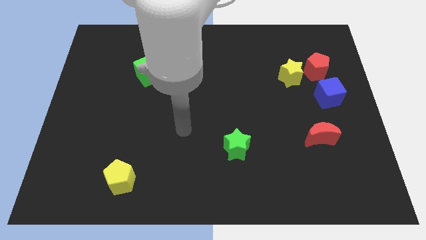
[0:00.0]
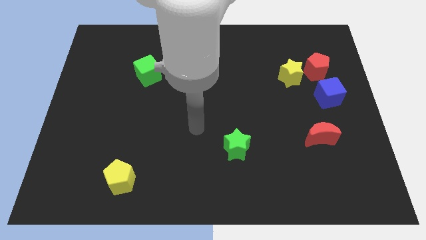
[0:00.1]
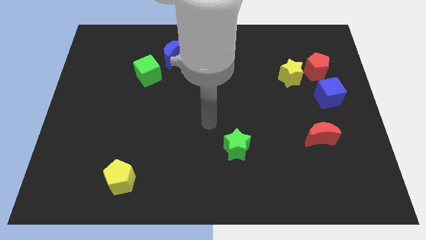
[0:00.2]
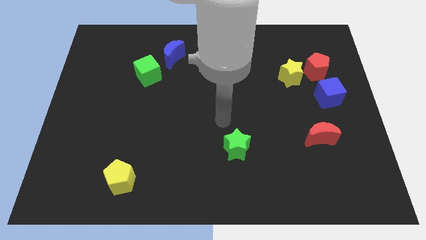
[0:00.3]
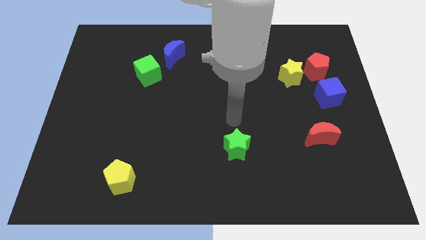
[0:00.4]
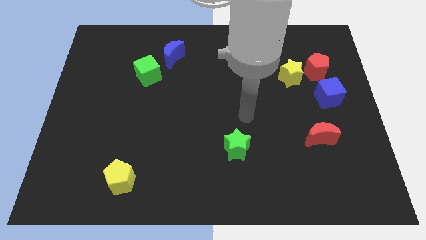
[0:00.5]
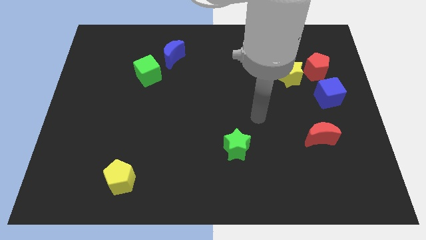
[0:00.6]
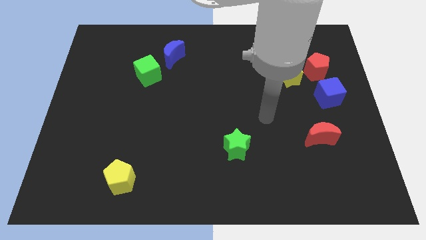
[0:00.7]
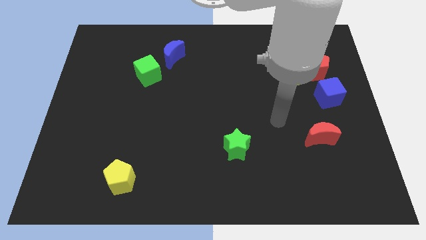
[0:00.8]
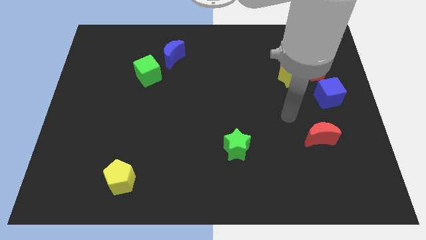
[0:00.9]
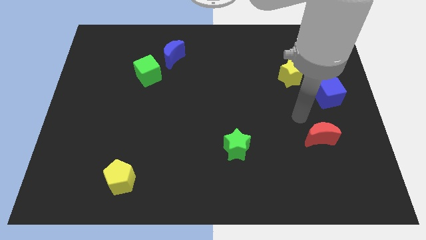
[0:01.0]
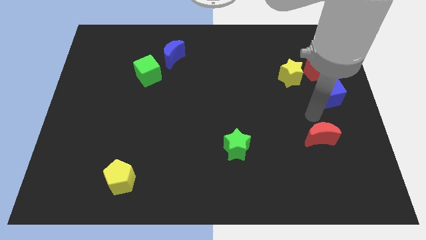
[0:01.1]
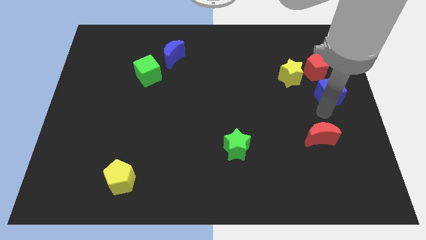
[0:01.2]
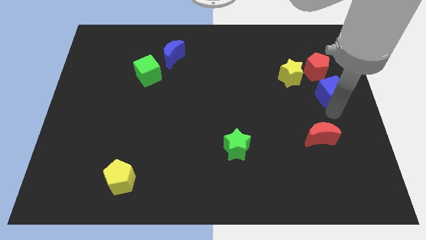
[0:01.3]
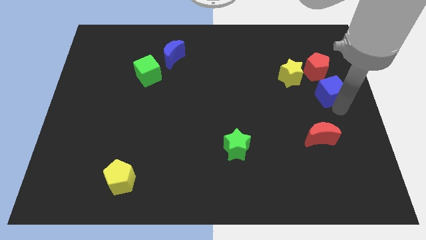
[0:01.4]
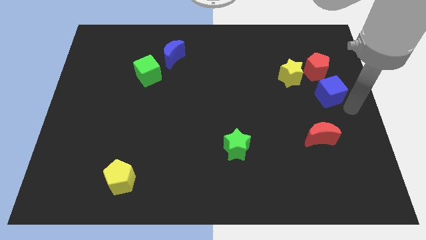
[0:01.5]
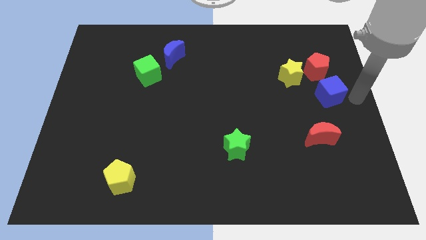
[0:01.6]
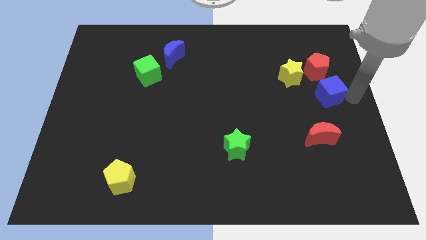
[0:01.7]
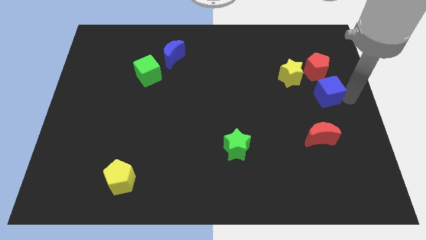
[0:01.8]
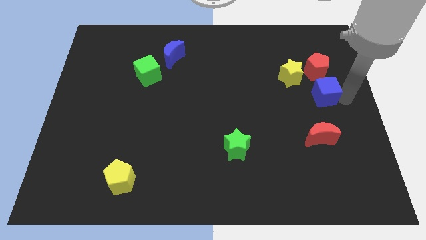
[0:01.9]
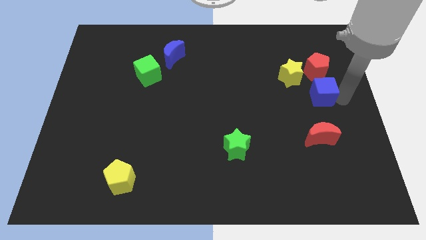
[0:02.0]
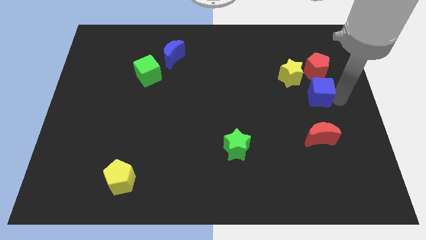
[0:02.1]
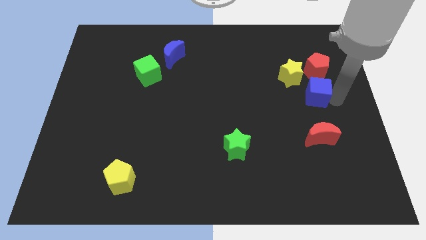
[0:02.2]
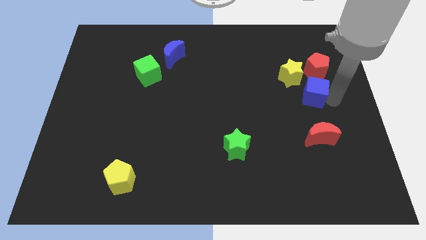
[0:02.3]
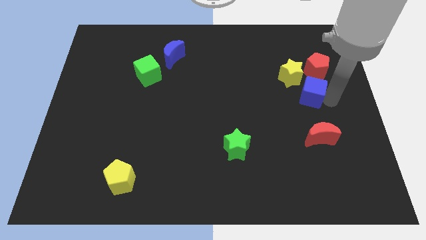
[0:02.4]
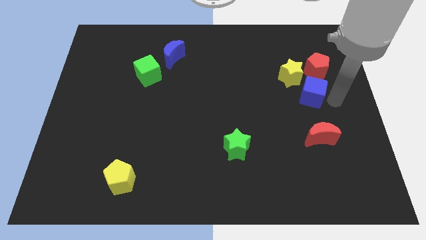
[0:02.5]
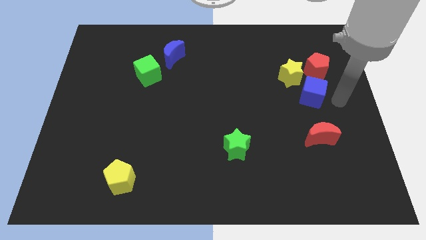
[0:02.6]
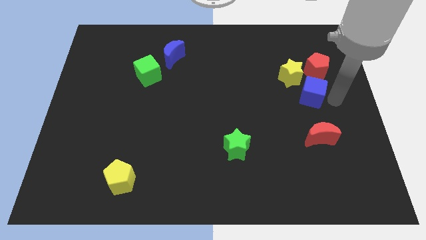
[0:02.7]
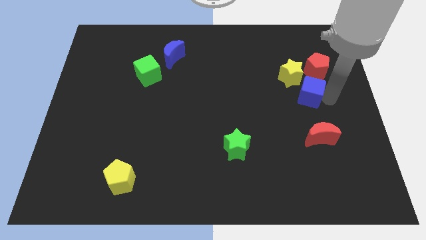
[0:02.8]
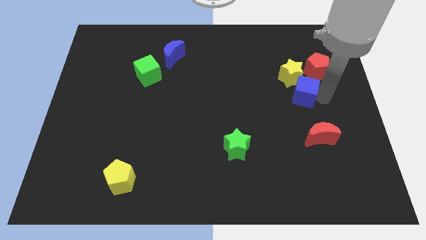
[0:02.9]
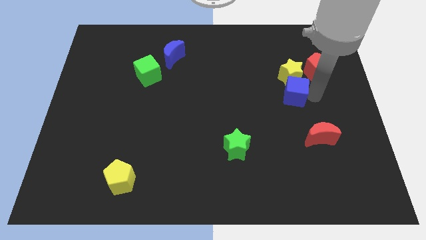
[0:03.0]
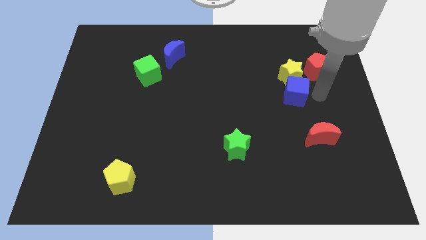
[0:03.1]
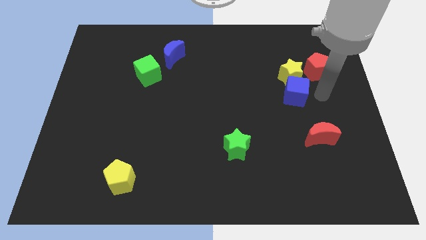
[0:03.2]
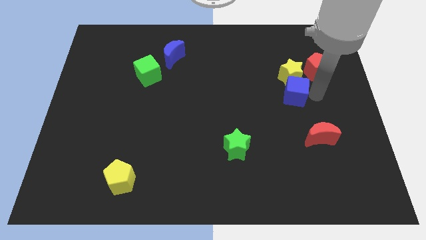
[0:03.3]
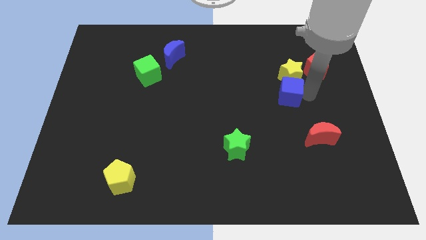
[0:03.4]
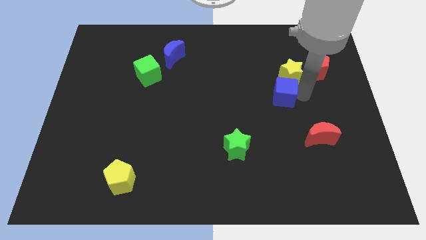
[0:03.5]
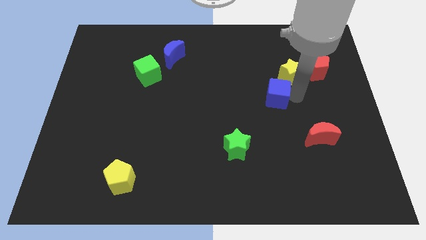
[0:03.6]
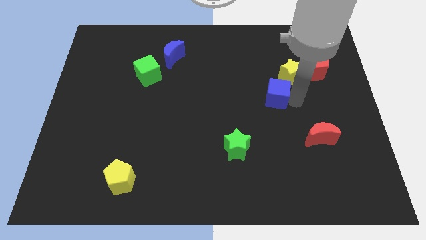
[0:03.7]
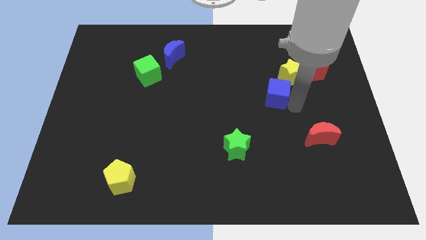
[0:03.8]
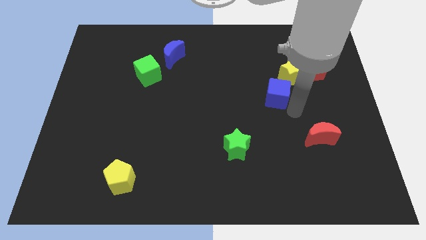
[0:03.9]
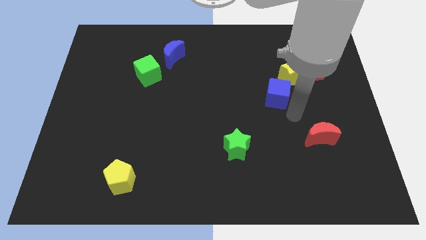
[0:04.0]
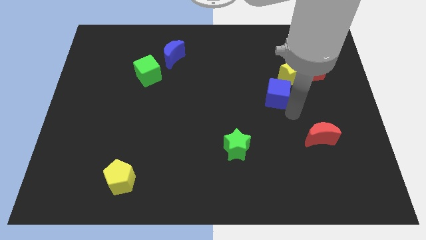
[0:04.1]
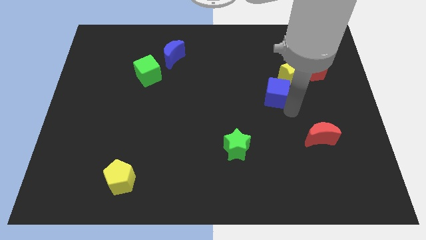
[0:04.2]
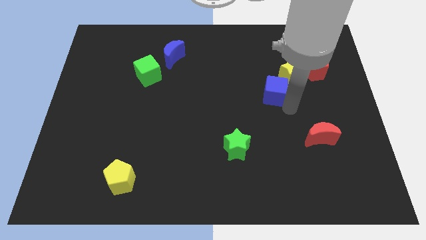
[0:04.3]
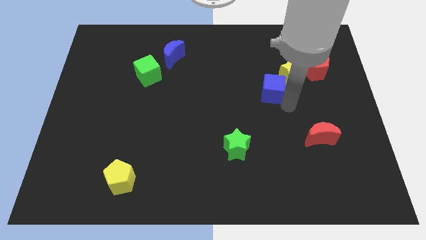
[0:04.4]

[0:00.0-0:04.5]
push the blue cube diagonally up and to the left a bit

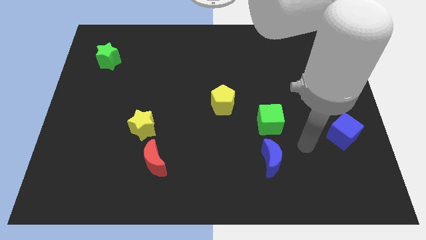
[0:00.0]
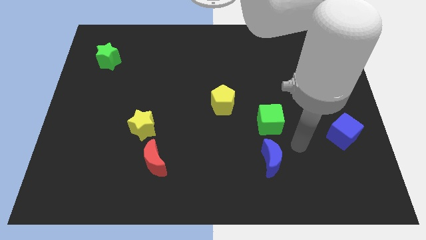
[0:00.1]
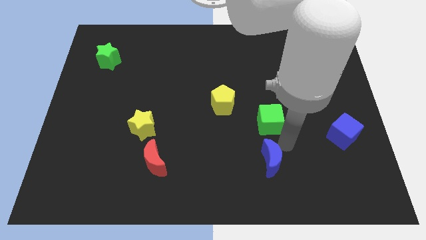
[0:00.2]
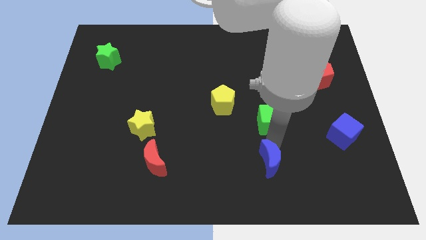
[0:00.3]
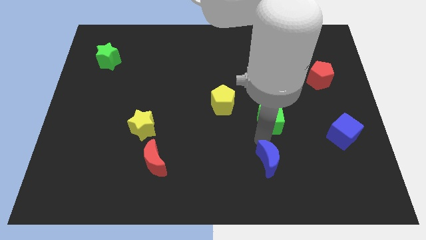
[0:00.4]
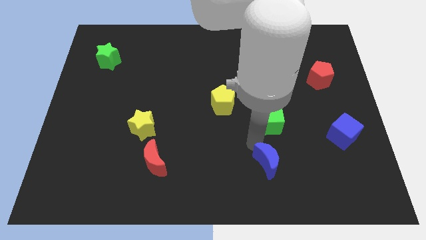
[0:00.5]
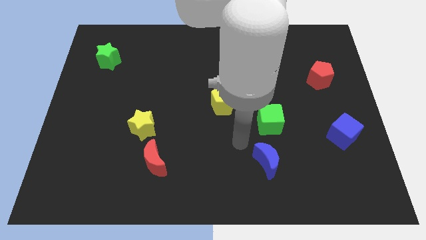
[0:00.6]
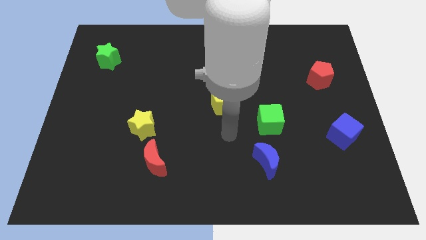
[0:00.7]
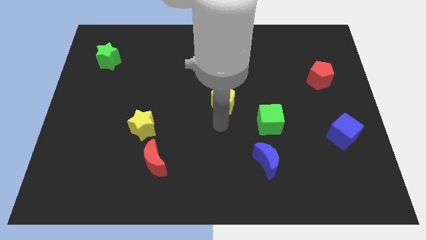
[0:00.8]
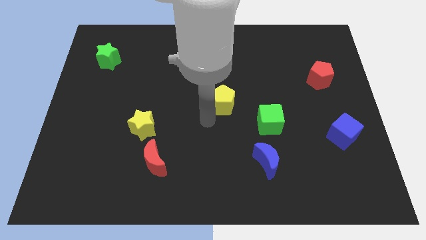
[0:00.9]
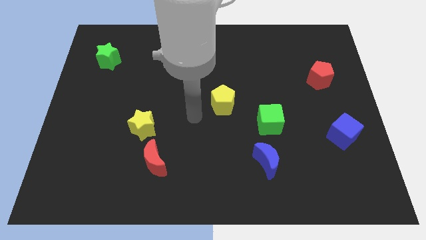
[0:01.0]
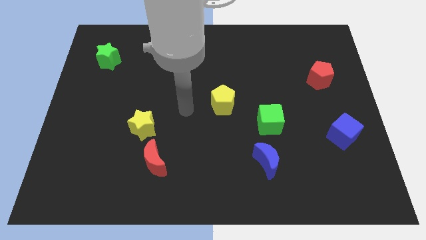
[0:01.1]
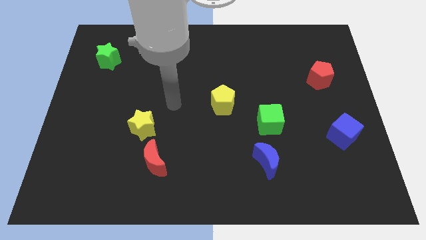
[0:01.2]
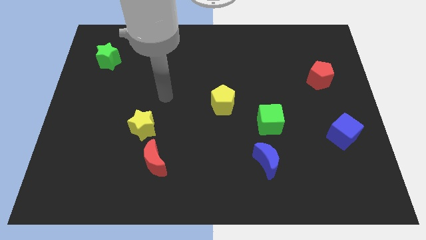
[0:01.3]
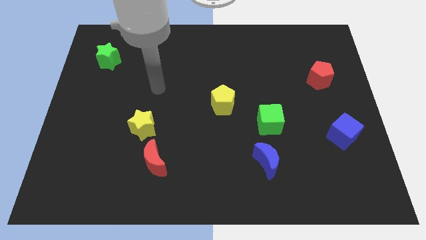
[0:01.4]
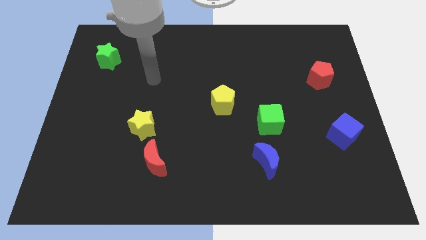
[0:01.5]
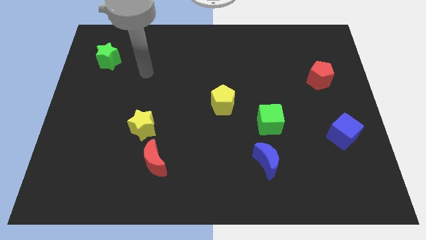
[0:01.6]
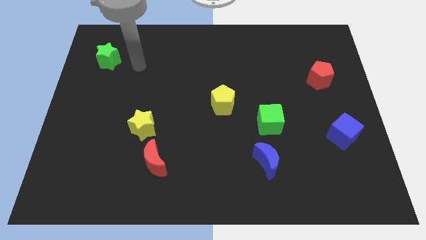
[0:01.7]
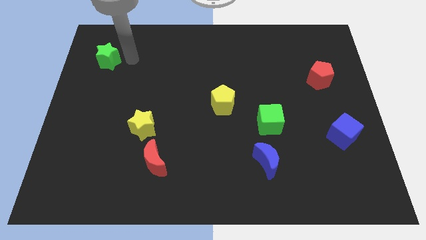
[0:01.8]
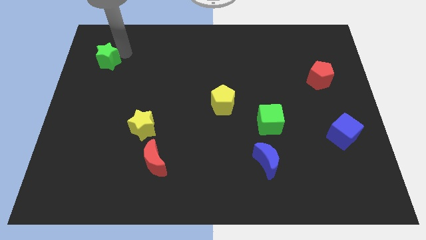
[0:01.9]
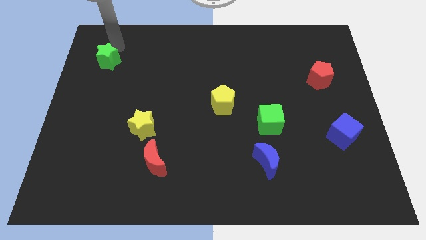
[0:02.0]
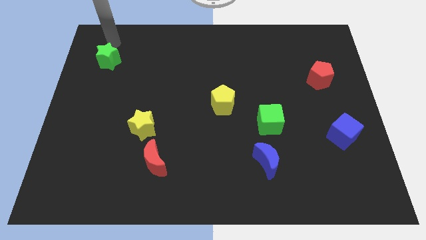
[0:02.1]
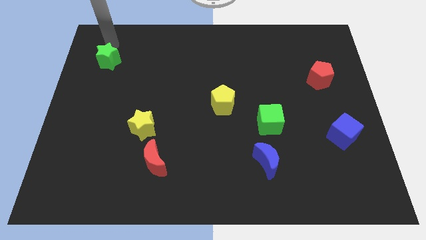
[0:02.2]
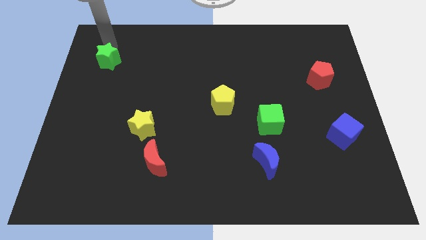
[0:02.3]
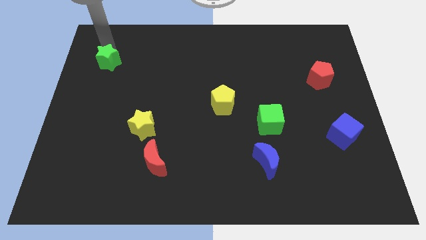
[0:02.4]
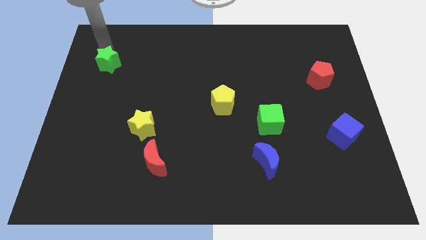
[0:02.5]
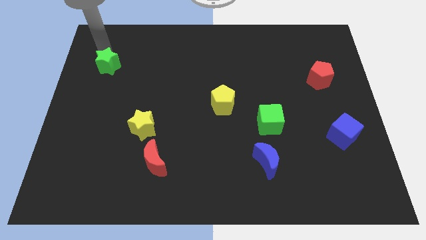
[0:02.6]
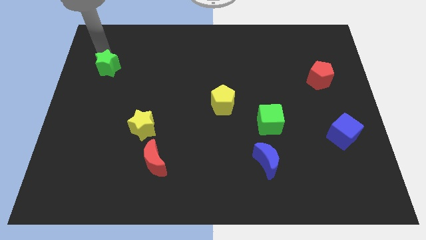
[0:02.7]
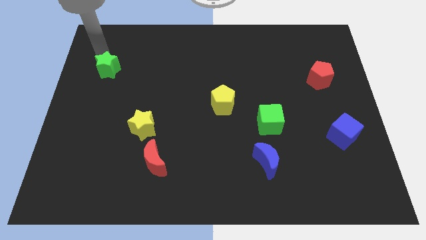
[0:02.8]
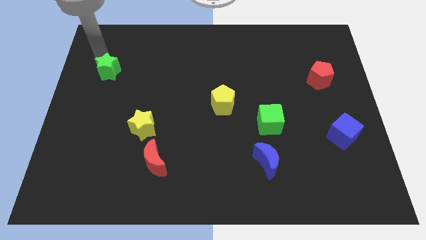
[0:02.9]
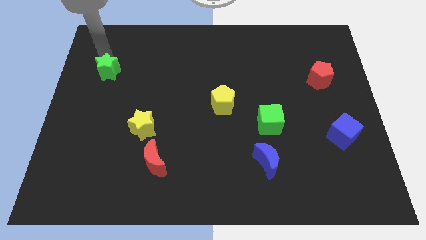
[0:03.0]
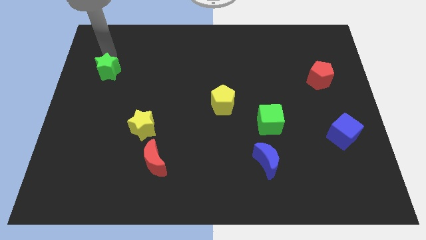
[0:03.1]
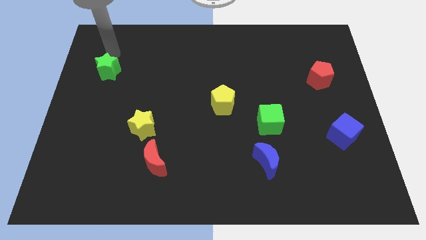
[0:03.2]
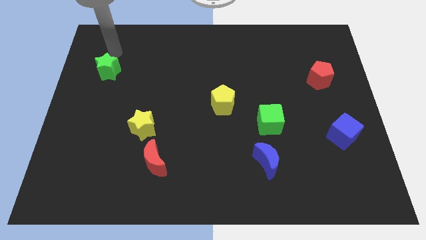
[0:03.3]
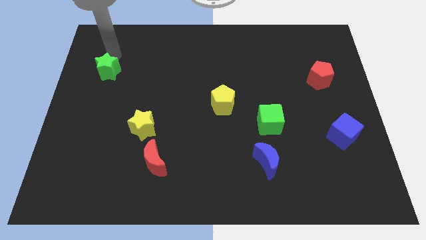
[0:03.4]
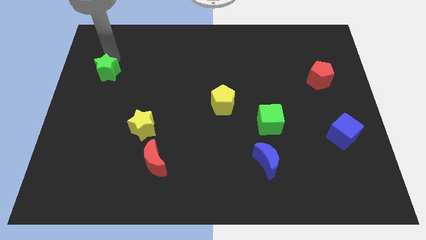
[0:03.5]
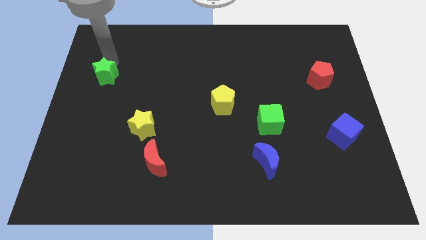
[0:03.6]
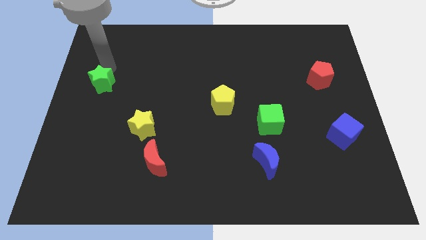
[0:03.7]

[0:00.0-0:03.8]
move the green star a bit down
